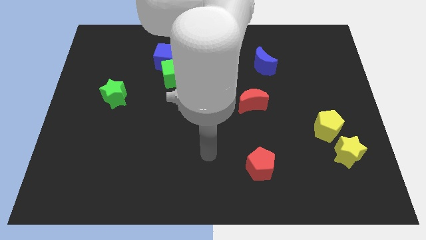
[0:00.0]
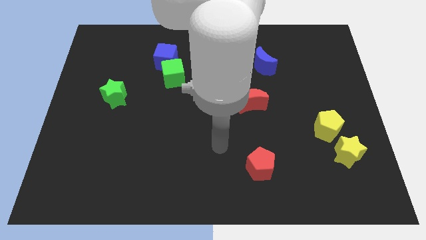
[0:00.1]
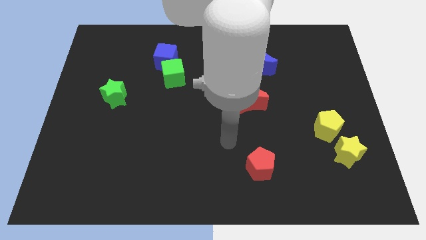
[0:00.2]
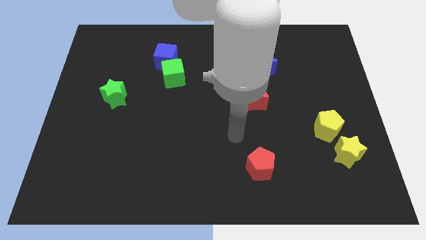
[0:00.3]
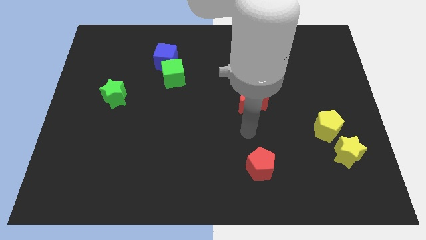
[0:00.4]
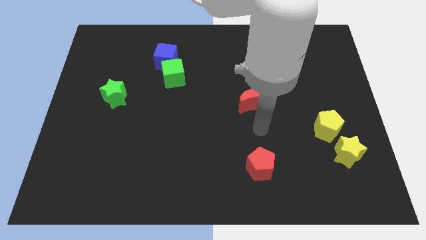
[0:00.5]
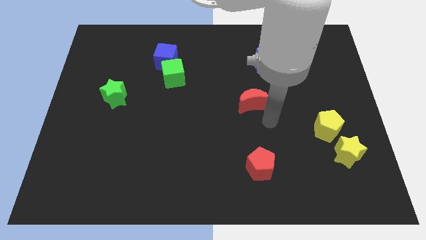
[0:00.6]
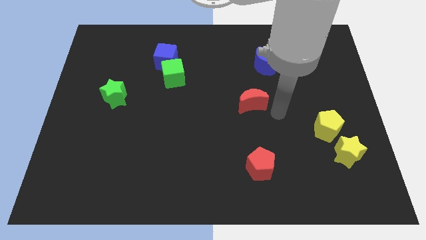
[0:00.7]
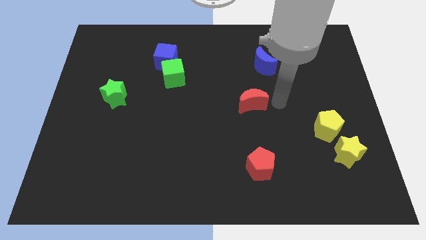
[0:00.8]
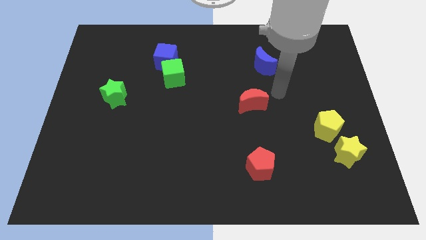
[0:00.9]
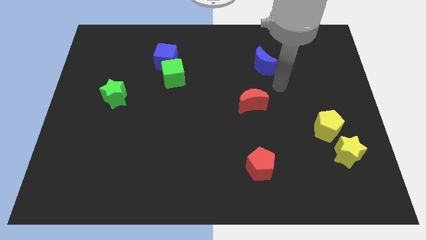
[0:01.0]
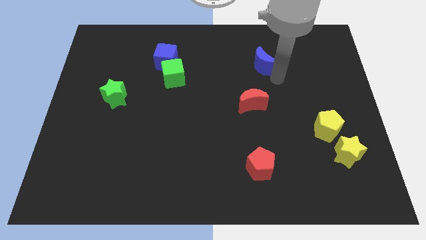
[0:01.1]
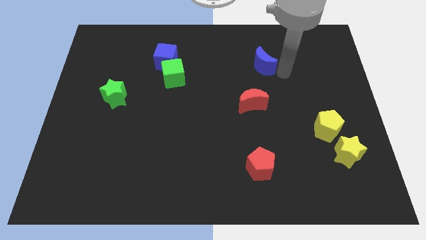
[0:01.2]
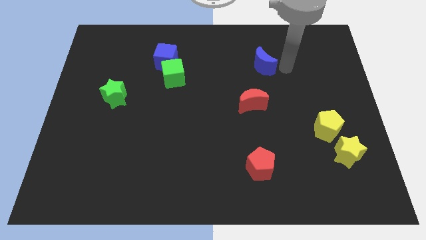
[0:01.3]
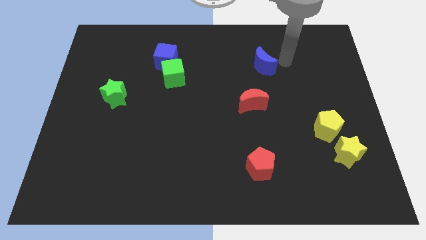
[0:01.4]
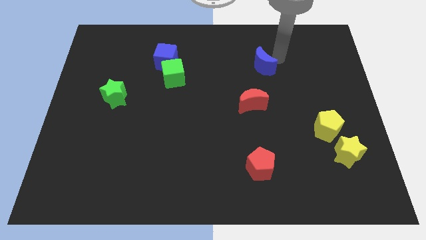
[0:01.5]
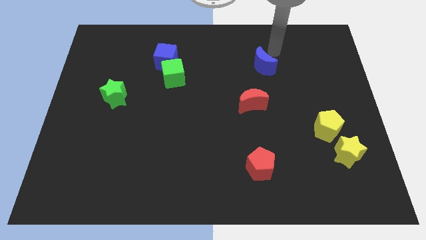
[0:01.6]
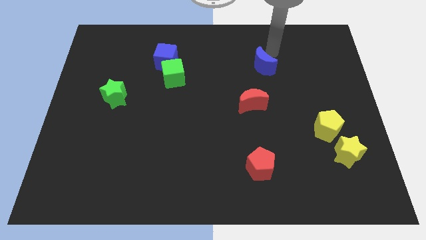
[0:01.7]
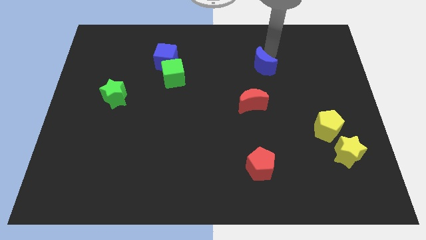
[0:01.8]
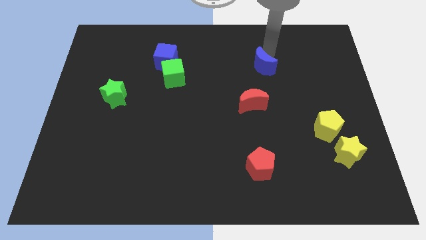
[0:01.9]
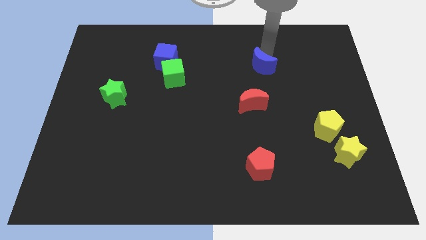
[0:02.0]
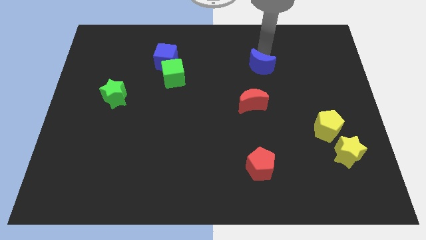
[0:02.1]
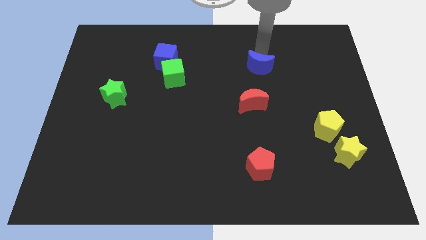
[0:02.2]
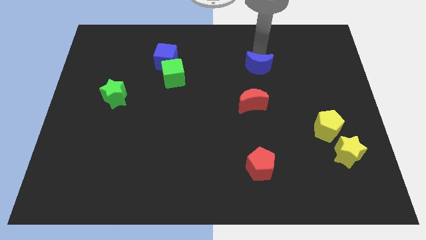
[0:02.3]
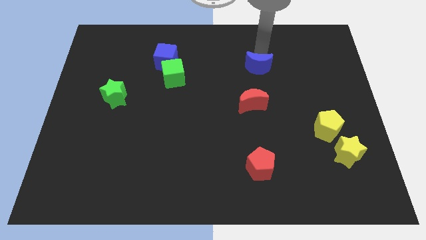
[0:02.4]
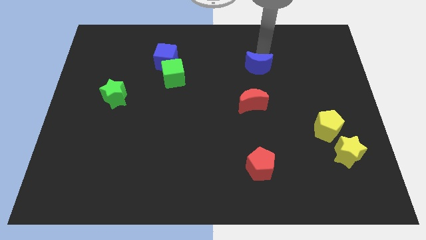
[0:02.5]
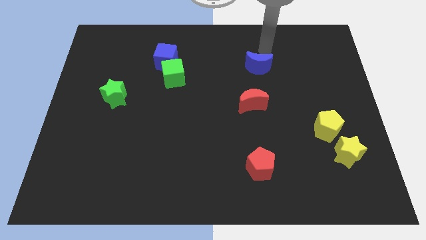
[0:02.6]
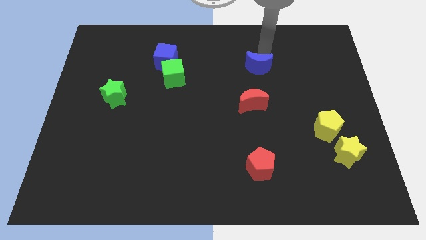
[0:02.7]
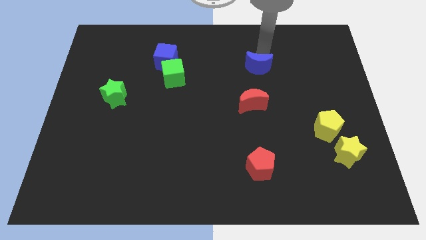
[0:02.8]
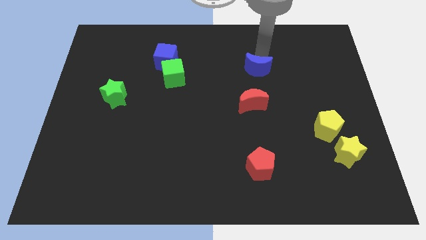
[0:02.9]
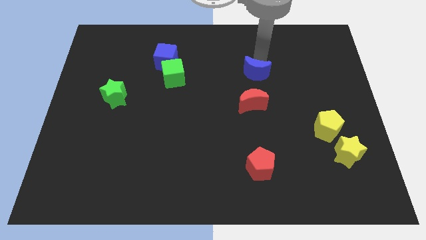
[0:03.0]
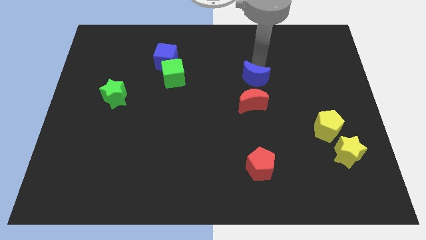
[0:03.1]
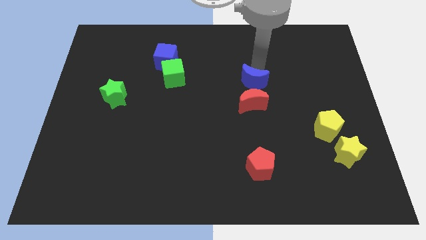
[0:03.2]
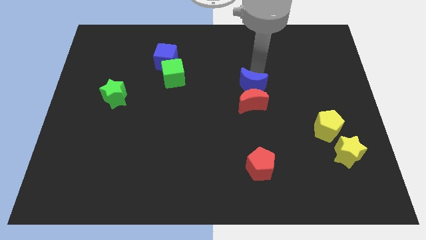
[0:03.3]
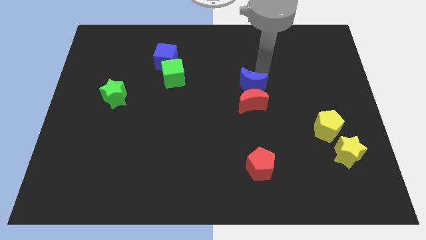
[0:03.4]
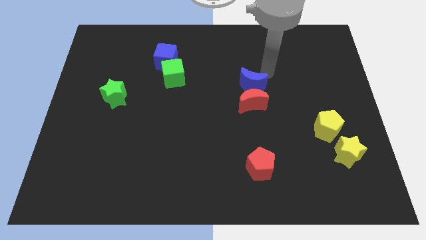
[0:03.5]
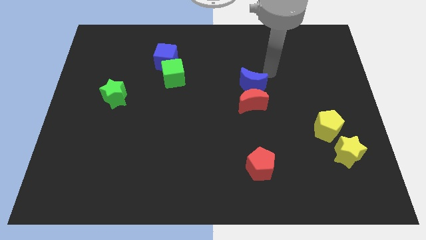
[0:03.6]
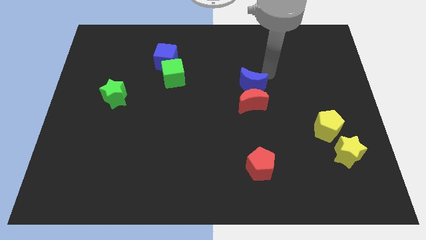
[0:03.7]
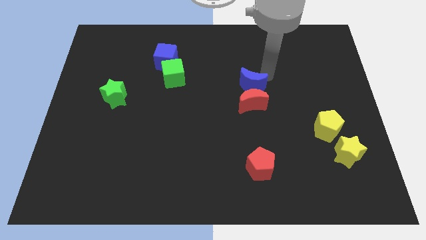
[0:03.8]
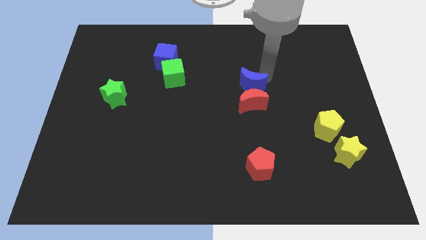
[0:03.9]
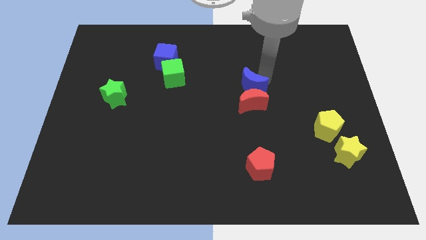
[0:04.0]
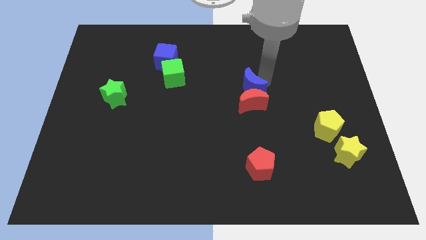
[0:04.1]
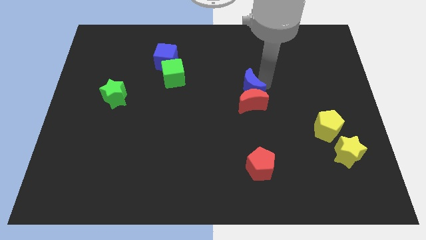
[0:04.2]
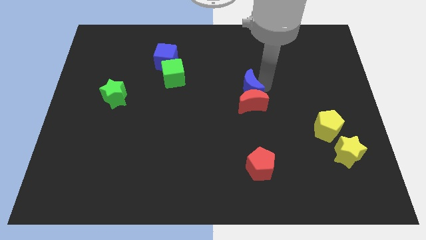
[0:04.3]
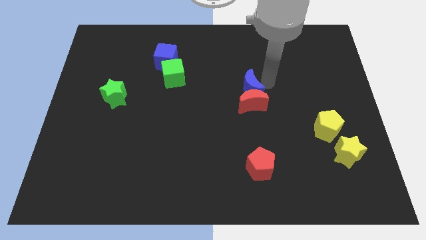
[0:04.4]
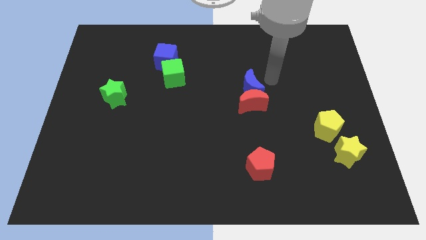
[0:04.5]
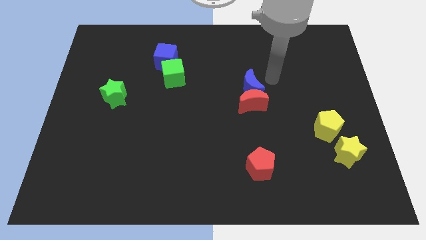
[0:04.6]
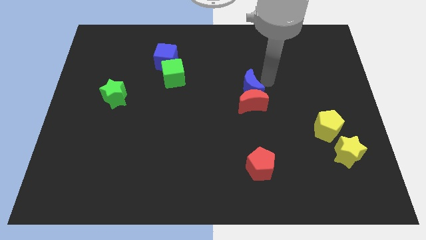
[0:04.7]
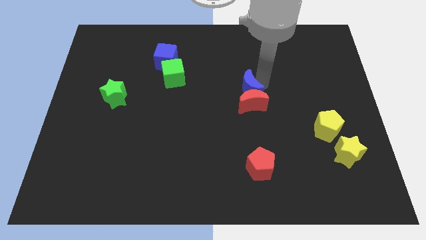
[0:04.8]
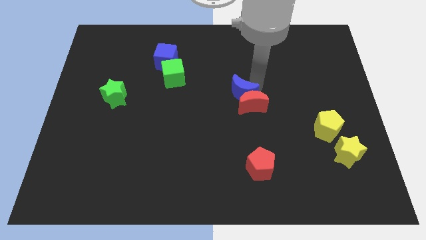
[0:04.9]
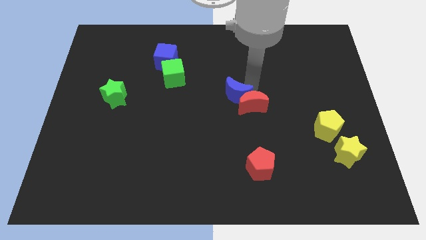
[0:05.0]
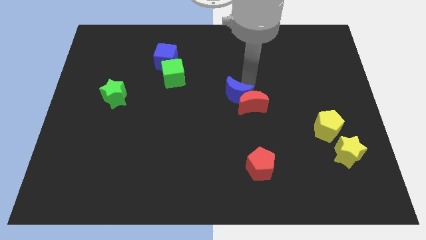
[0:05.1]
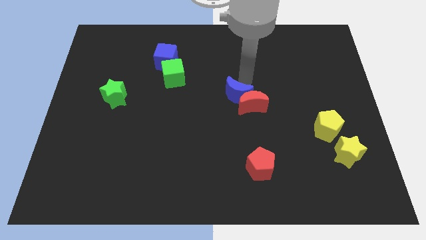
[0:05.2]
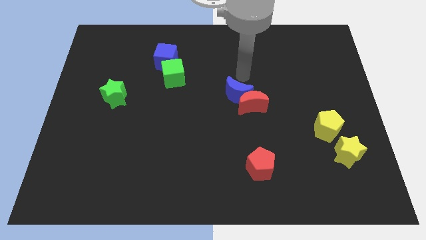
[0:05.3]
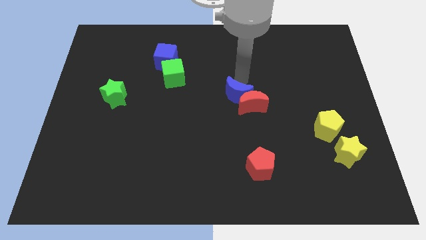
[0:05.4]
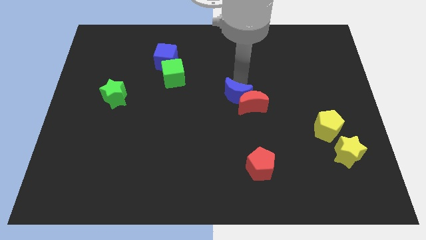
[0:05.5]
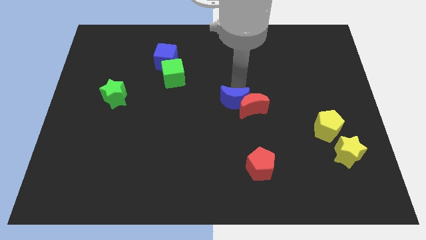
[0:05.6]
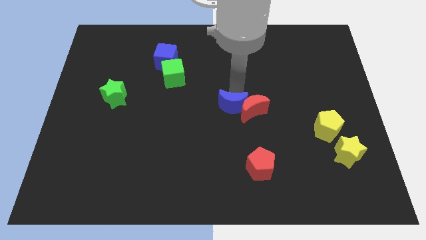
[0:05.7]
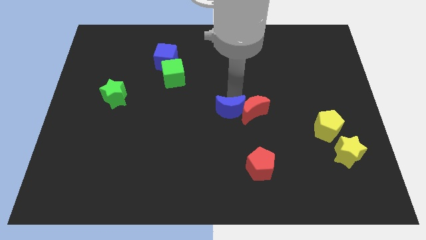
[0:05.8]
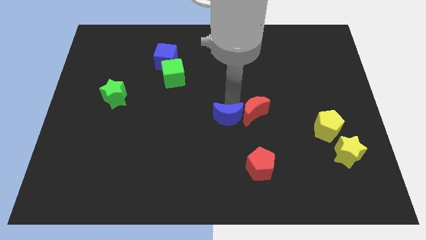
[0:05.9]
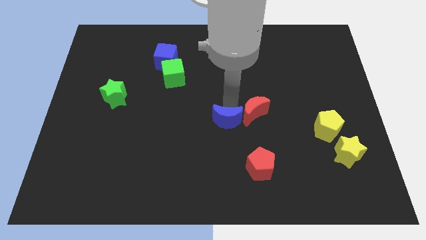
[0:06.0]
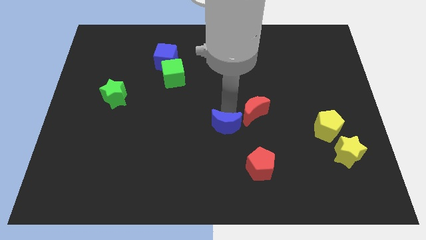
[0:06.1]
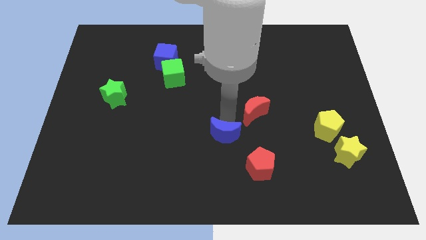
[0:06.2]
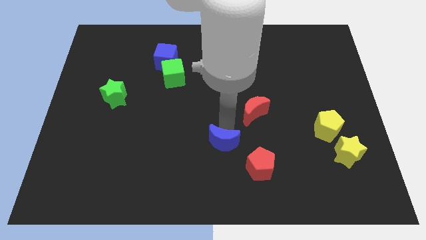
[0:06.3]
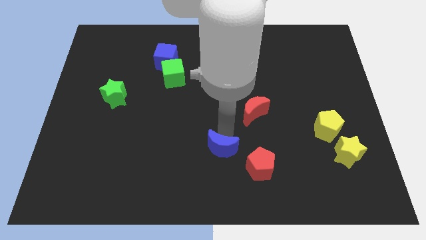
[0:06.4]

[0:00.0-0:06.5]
slide the blue moon to the left side of the red pentagon

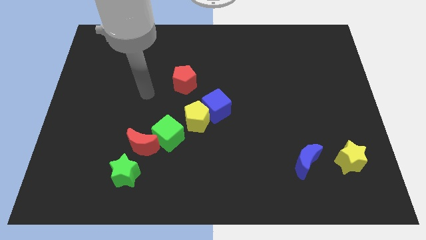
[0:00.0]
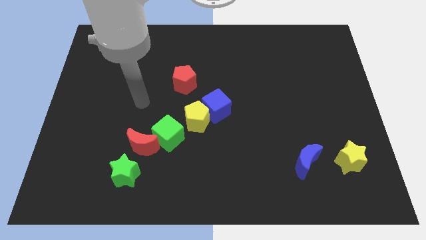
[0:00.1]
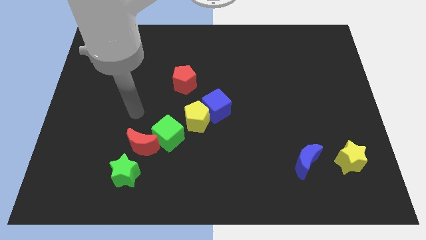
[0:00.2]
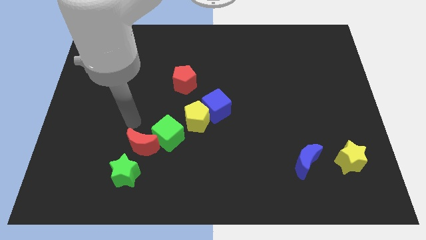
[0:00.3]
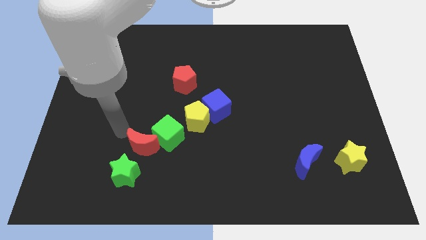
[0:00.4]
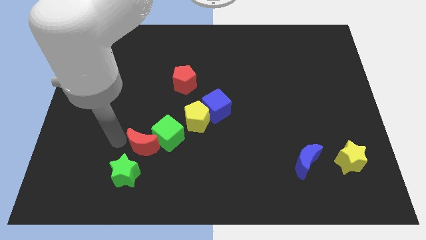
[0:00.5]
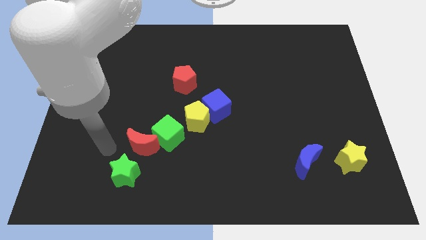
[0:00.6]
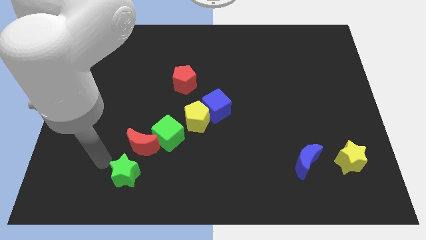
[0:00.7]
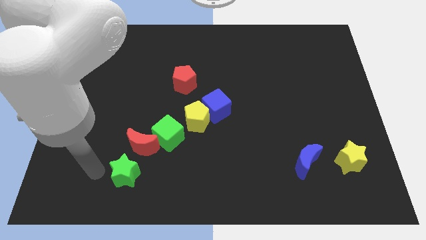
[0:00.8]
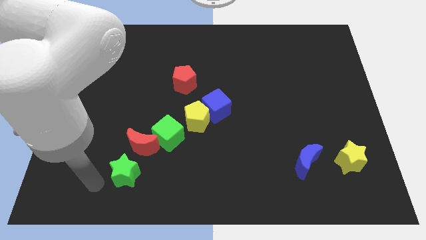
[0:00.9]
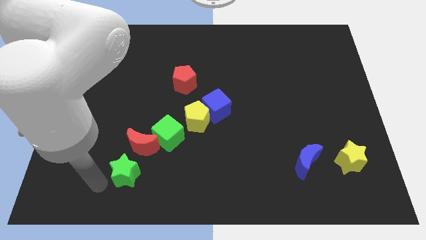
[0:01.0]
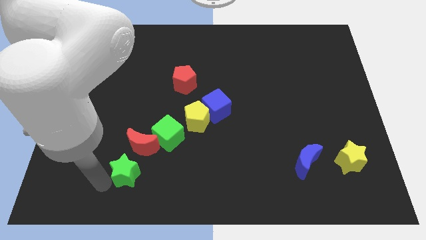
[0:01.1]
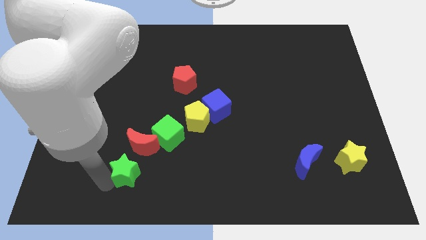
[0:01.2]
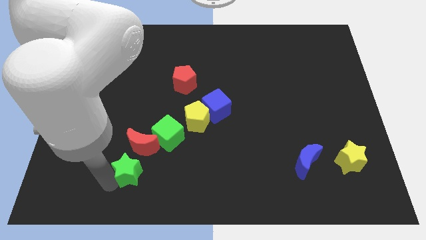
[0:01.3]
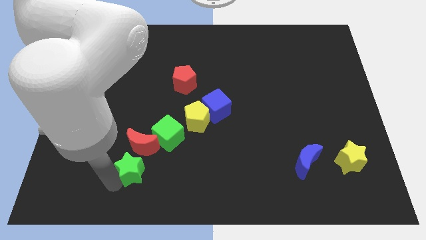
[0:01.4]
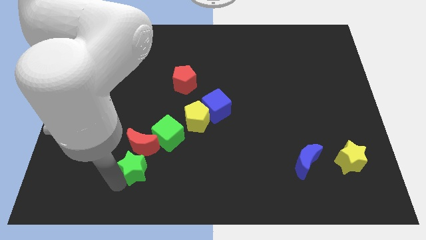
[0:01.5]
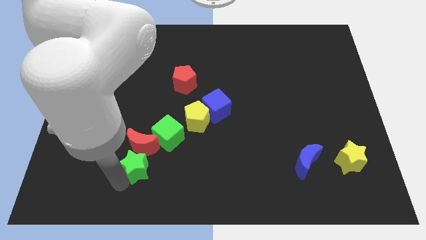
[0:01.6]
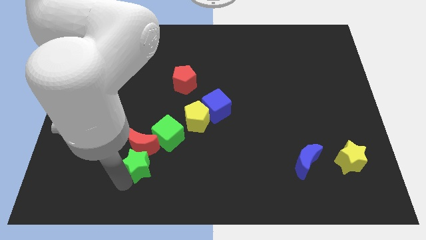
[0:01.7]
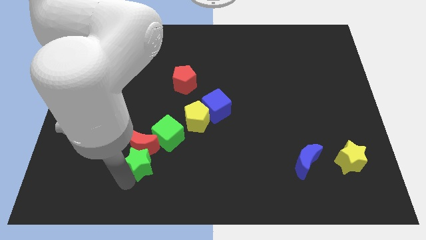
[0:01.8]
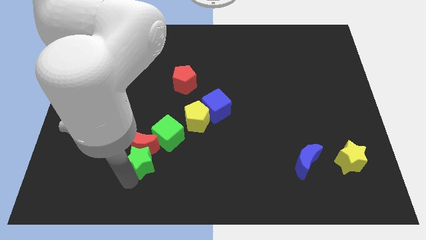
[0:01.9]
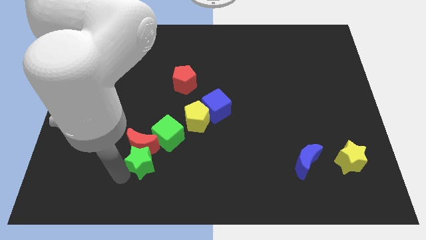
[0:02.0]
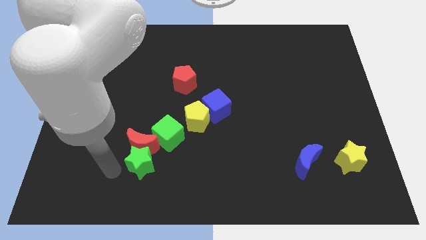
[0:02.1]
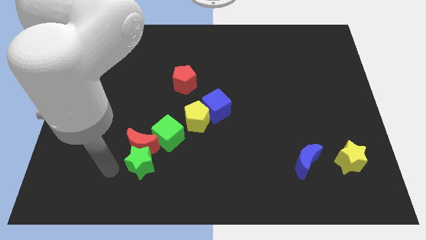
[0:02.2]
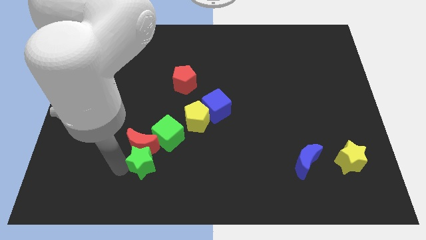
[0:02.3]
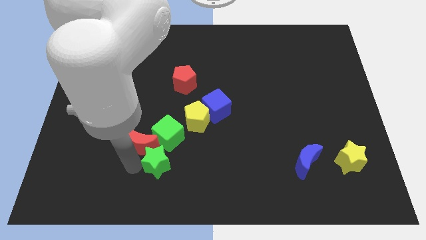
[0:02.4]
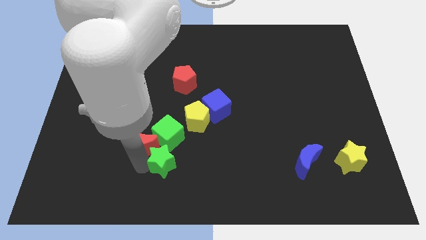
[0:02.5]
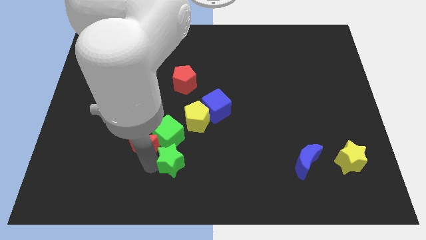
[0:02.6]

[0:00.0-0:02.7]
push the green star diagonally down and to the right of the green cube
